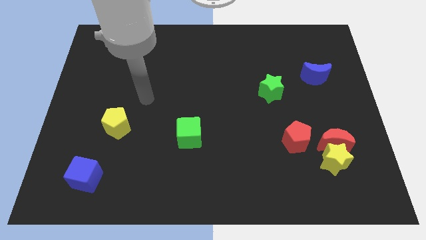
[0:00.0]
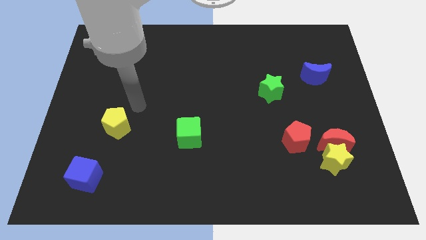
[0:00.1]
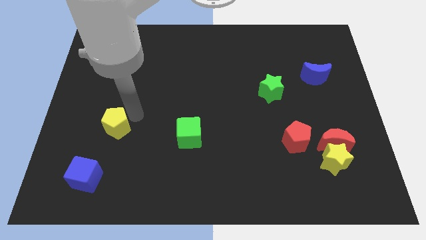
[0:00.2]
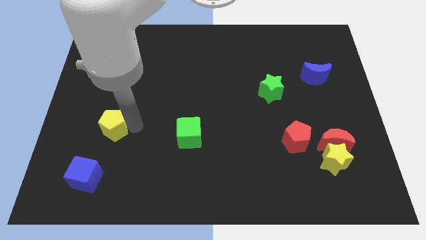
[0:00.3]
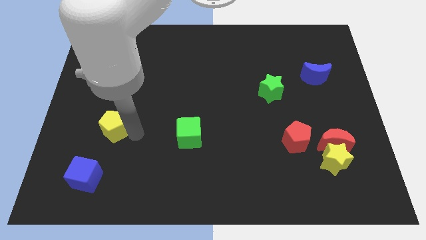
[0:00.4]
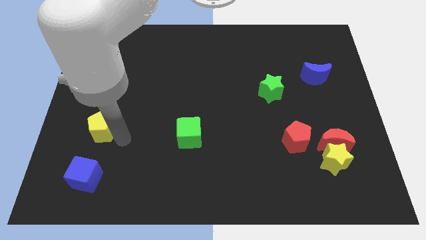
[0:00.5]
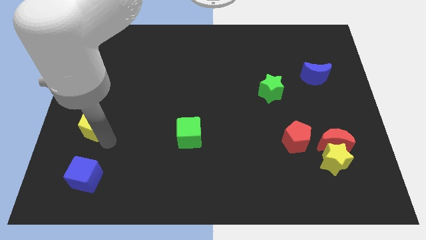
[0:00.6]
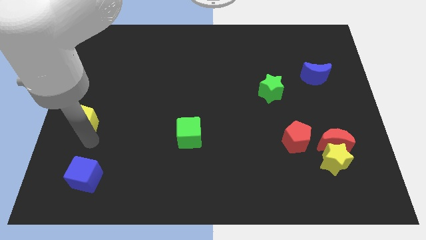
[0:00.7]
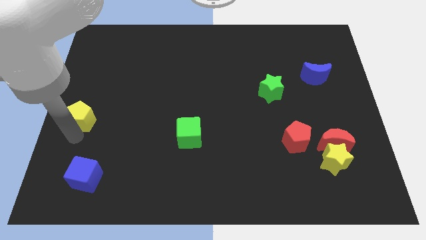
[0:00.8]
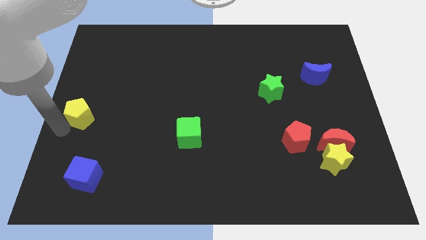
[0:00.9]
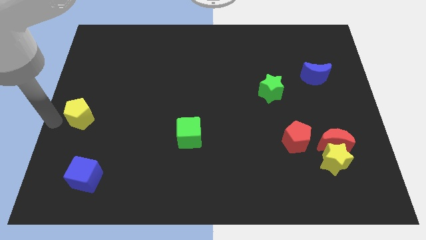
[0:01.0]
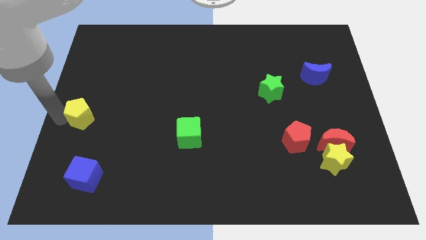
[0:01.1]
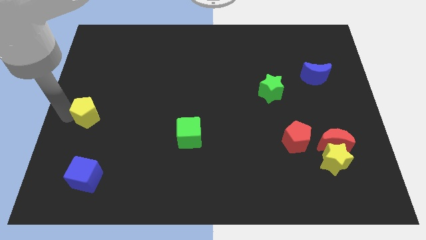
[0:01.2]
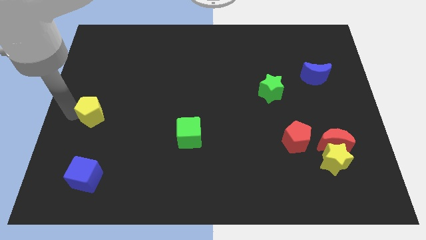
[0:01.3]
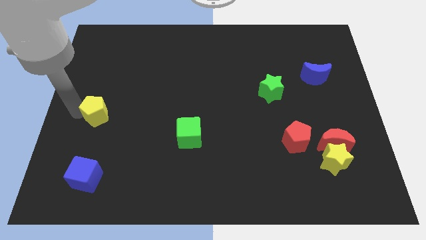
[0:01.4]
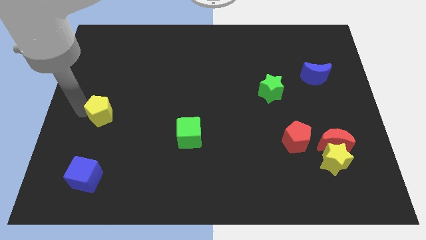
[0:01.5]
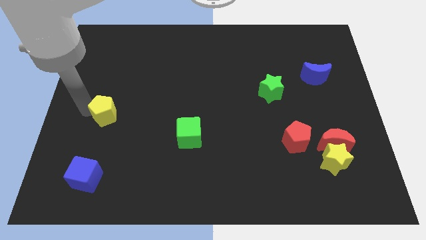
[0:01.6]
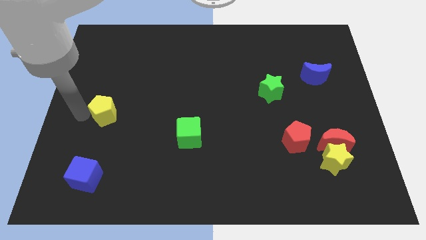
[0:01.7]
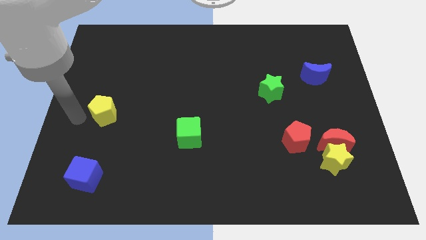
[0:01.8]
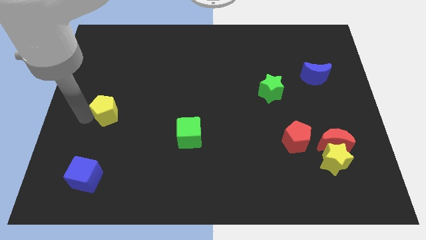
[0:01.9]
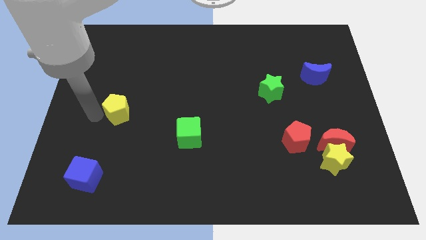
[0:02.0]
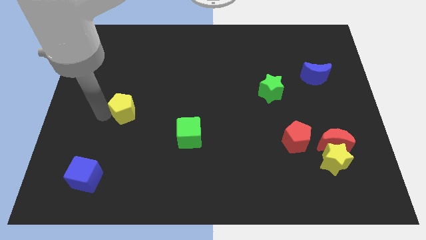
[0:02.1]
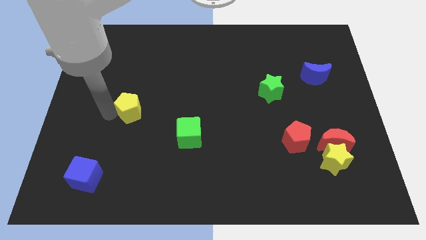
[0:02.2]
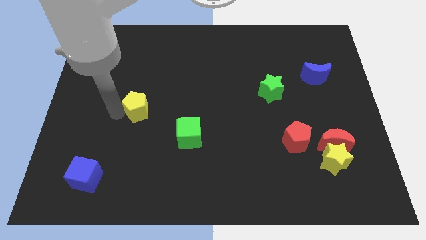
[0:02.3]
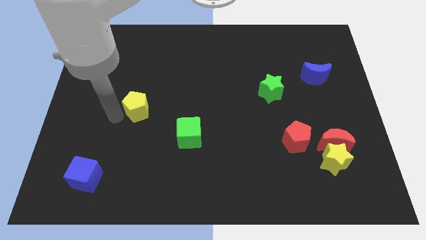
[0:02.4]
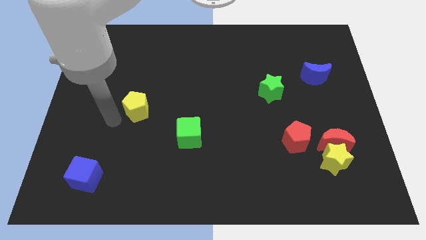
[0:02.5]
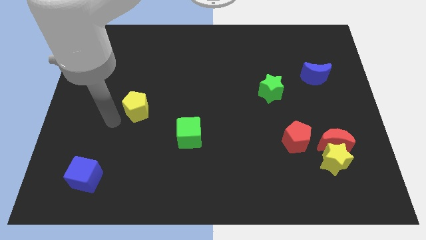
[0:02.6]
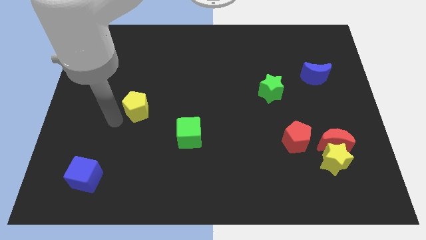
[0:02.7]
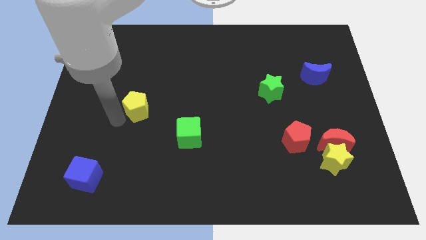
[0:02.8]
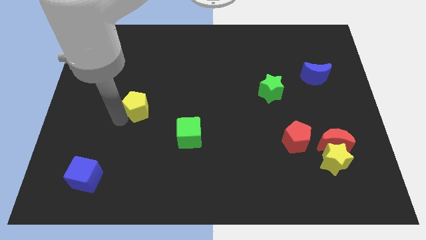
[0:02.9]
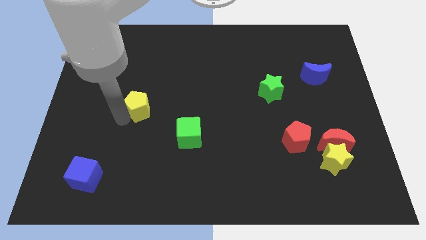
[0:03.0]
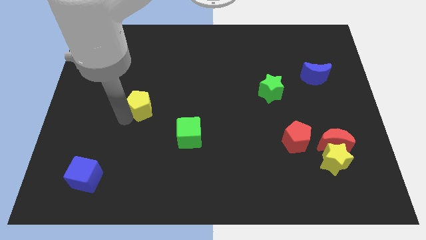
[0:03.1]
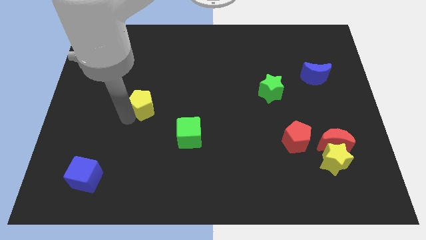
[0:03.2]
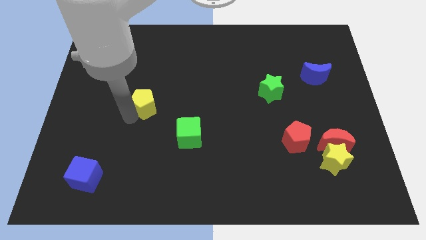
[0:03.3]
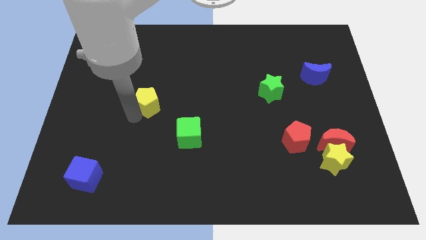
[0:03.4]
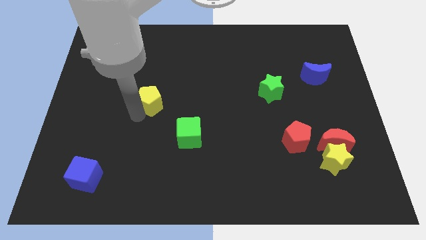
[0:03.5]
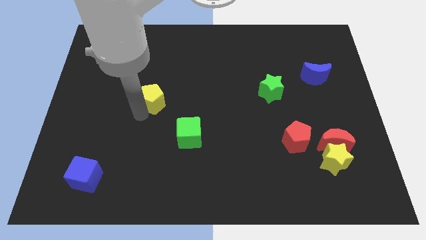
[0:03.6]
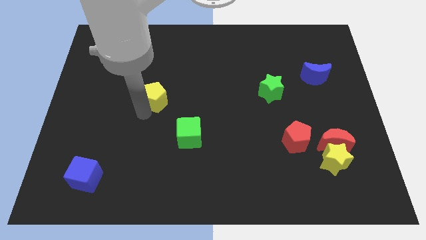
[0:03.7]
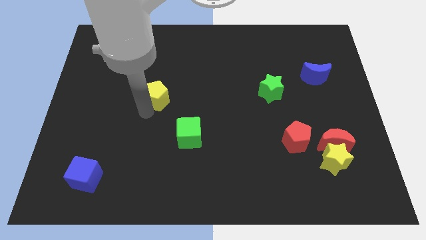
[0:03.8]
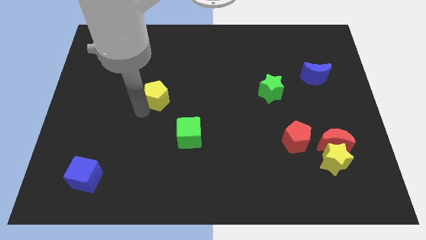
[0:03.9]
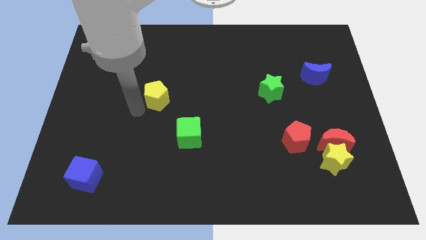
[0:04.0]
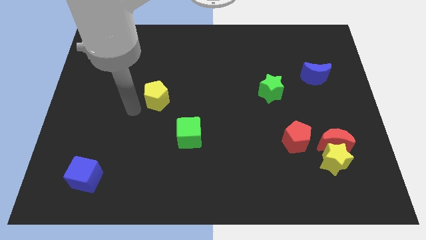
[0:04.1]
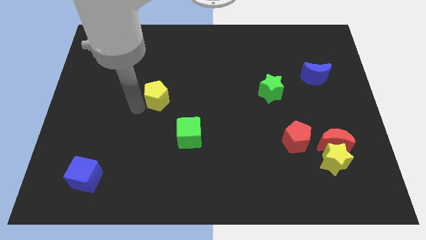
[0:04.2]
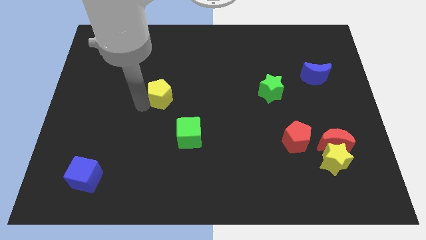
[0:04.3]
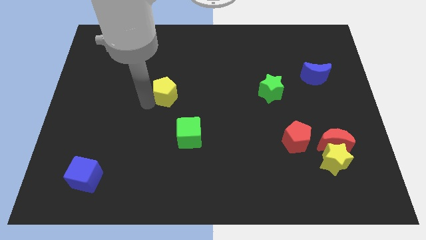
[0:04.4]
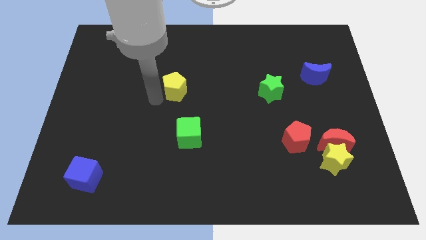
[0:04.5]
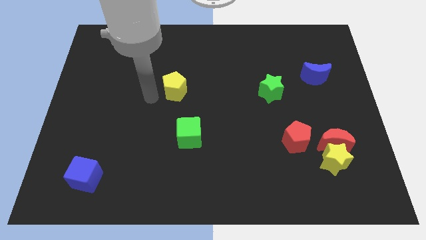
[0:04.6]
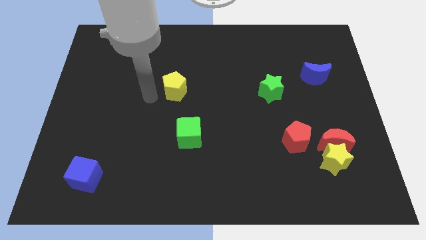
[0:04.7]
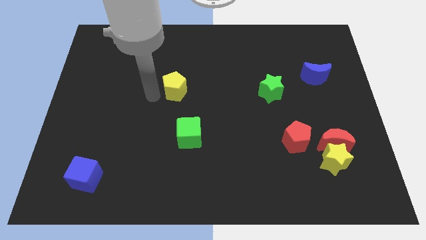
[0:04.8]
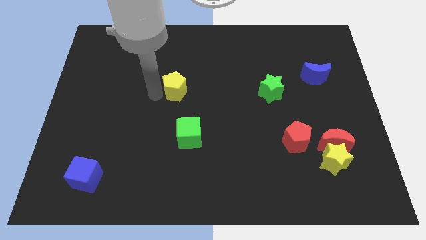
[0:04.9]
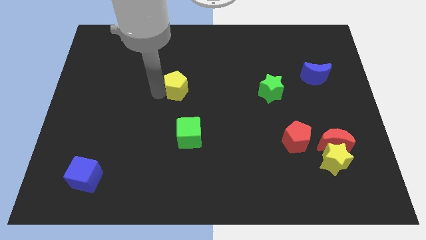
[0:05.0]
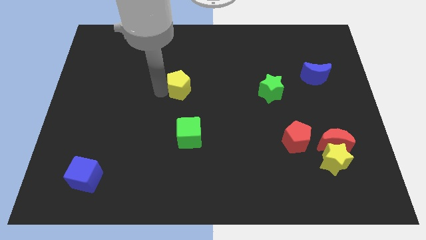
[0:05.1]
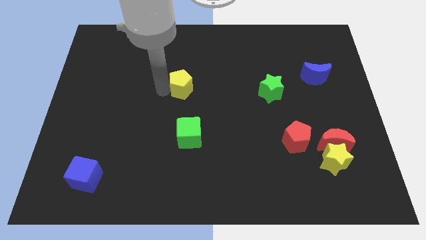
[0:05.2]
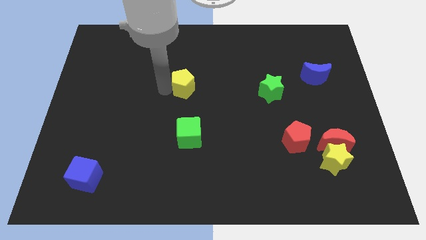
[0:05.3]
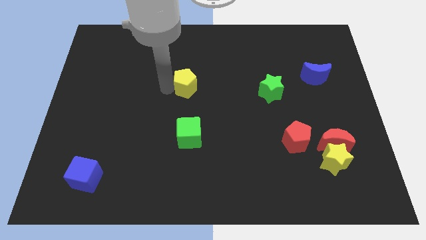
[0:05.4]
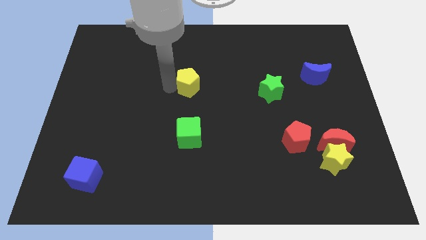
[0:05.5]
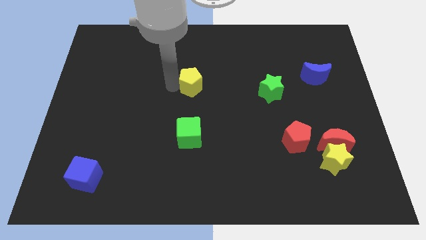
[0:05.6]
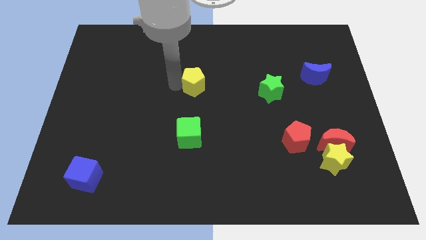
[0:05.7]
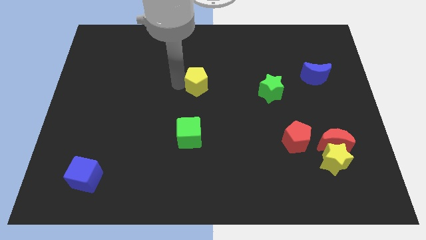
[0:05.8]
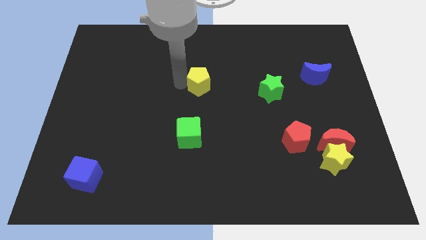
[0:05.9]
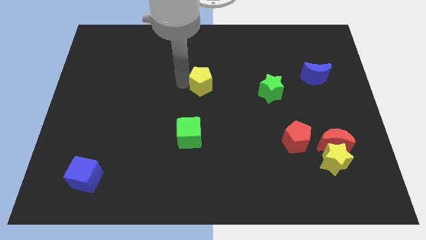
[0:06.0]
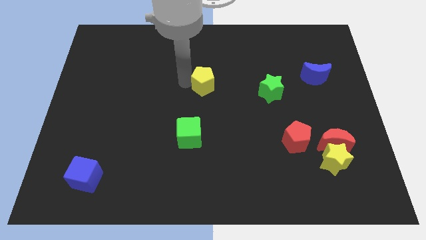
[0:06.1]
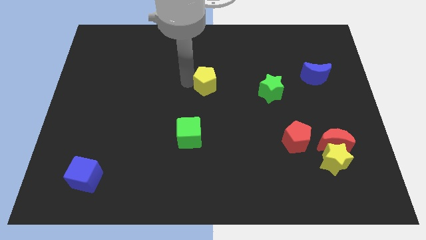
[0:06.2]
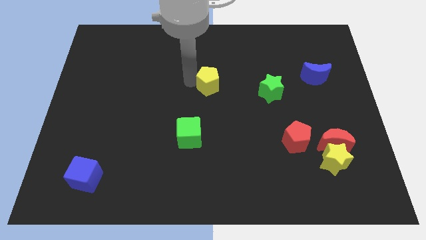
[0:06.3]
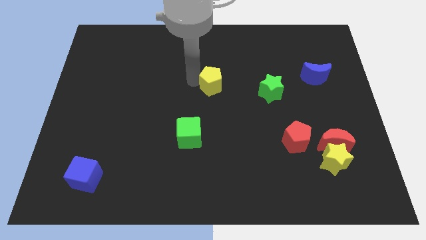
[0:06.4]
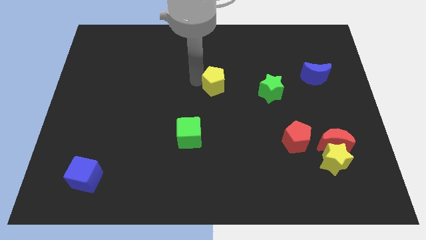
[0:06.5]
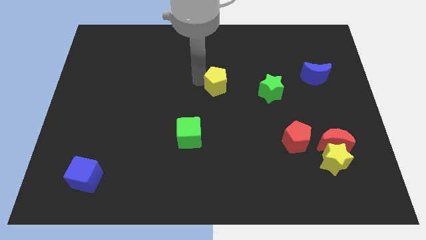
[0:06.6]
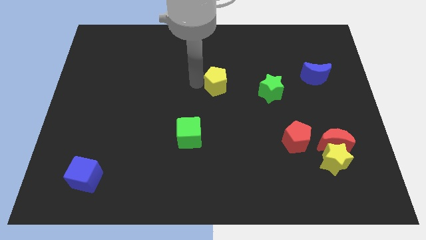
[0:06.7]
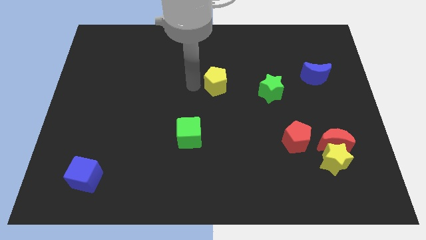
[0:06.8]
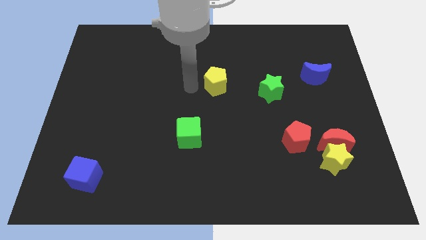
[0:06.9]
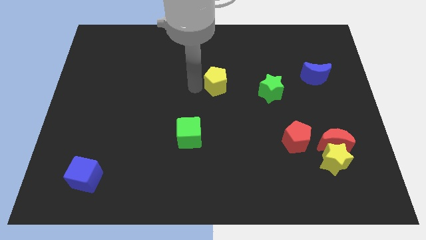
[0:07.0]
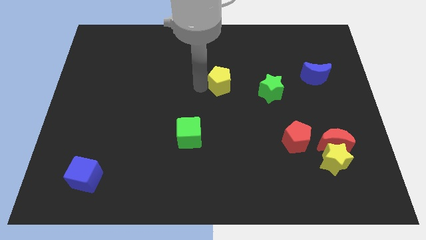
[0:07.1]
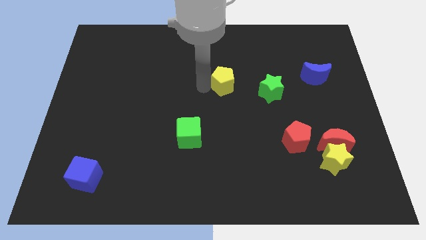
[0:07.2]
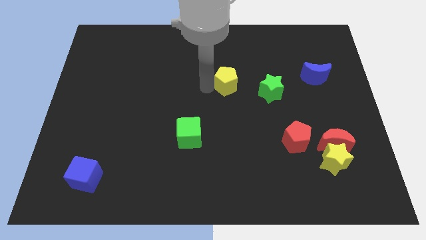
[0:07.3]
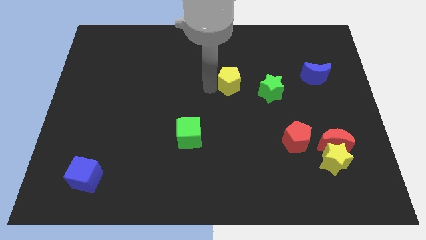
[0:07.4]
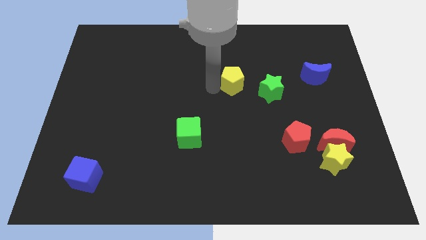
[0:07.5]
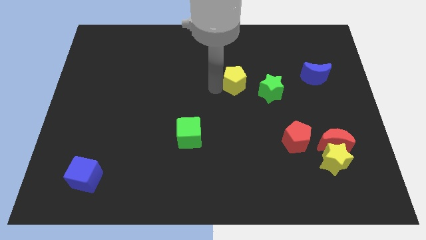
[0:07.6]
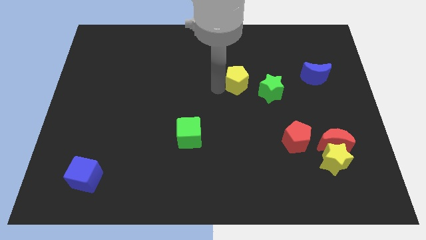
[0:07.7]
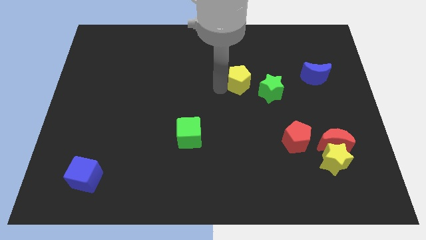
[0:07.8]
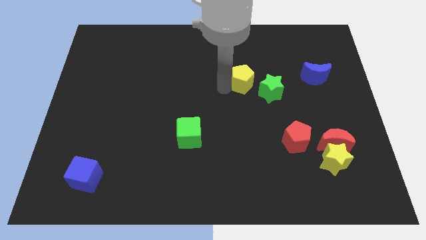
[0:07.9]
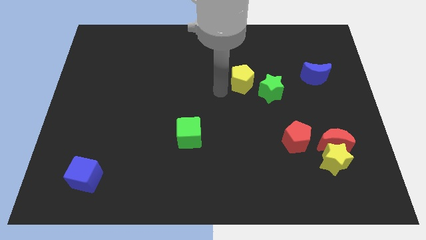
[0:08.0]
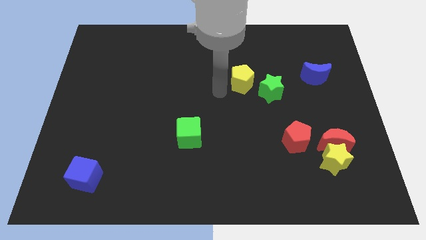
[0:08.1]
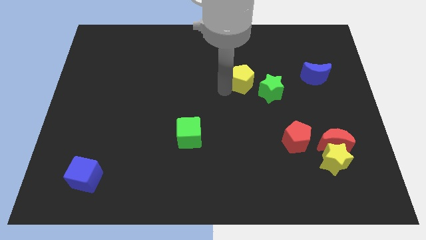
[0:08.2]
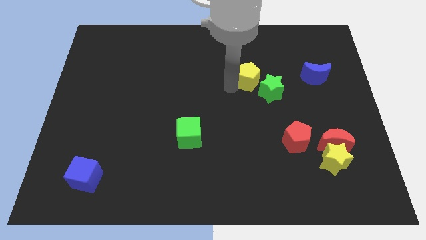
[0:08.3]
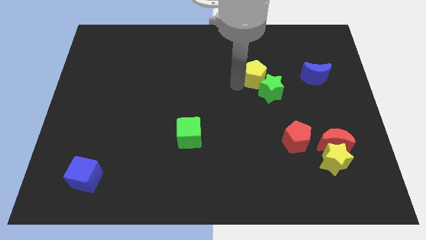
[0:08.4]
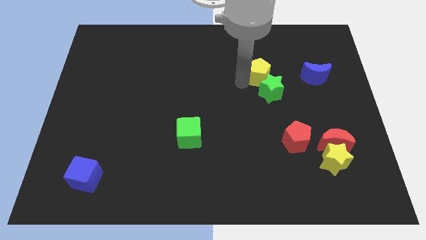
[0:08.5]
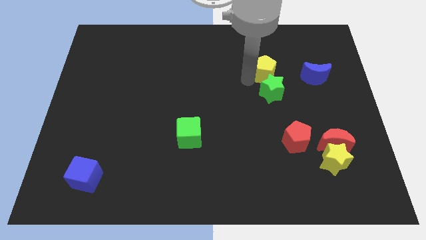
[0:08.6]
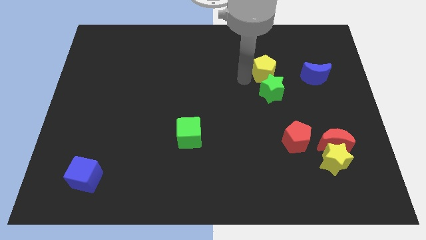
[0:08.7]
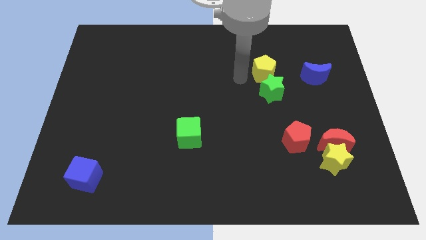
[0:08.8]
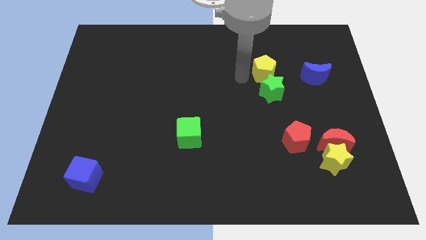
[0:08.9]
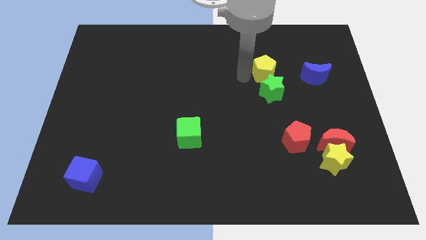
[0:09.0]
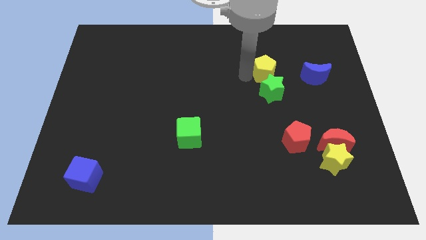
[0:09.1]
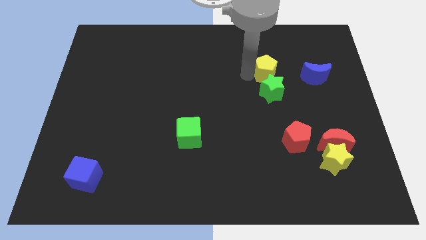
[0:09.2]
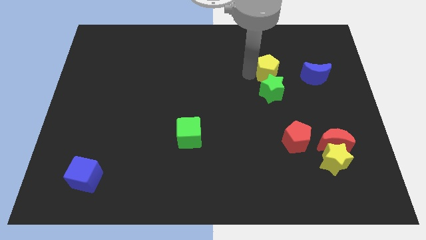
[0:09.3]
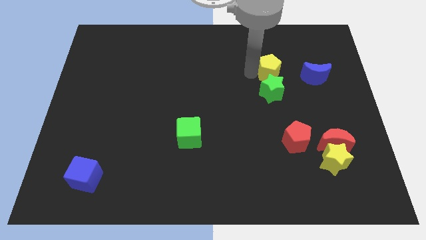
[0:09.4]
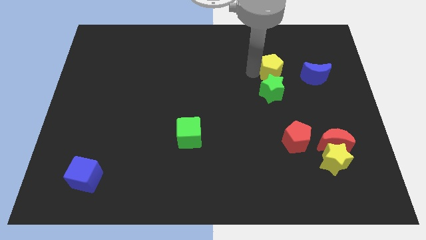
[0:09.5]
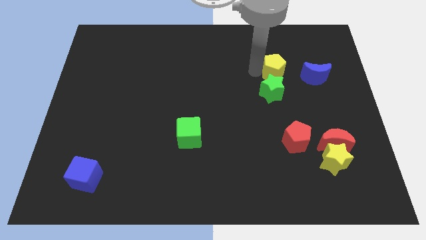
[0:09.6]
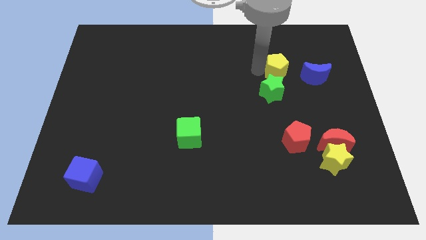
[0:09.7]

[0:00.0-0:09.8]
put the yellow pentagon to the top left of the blue moon
